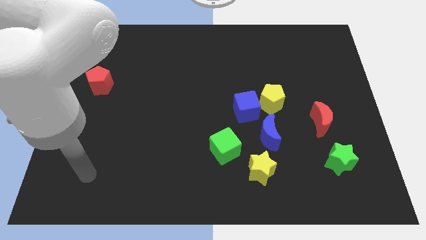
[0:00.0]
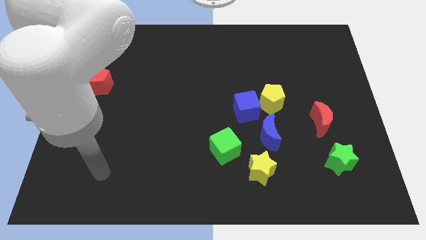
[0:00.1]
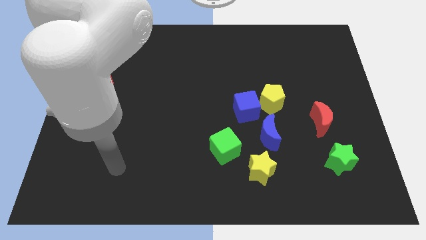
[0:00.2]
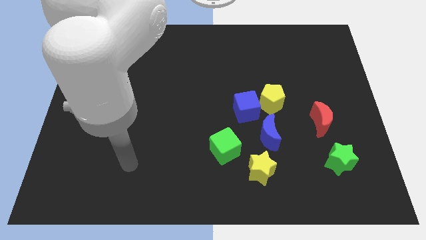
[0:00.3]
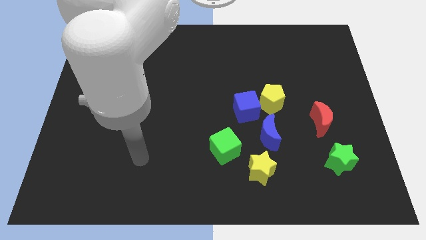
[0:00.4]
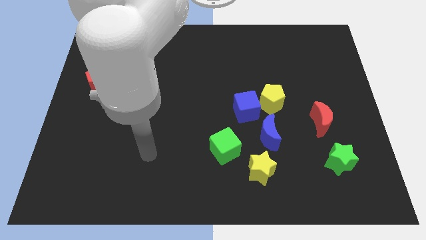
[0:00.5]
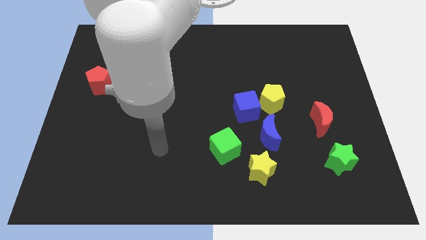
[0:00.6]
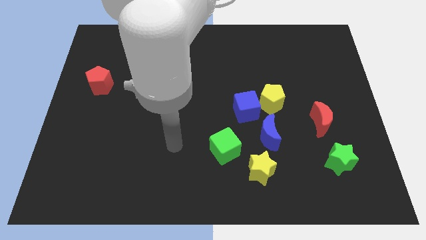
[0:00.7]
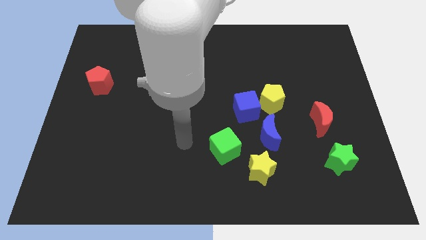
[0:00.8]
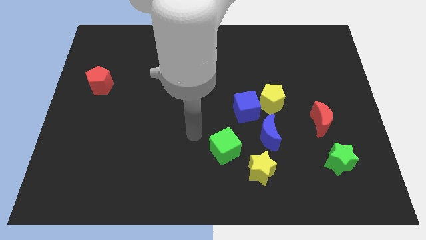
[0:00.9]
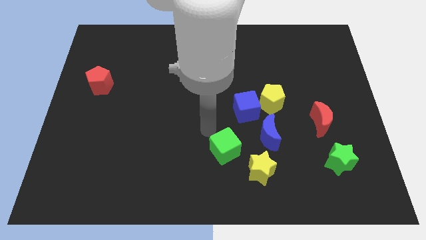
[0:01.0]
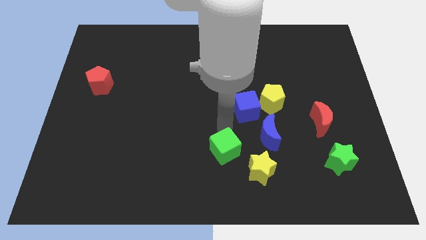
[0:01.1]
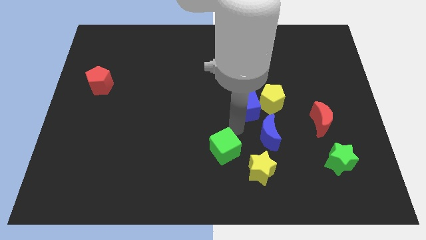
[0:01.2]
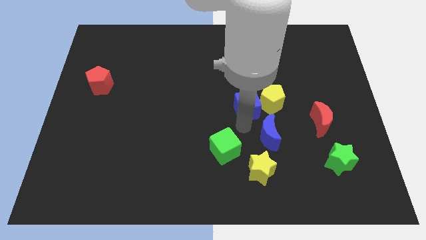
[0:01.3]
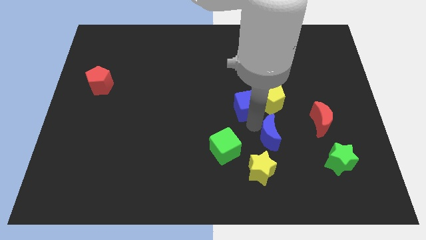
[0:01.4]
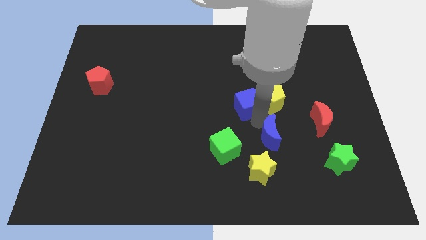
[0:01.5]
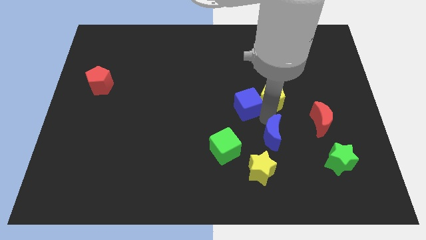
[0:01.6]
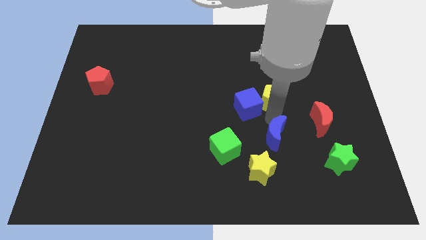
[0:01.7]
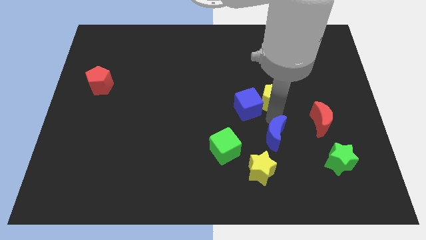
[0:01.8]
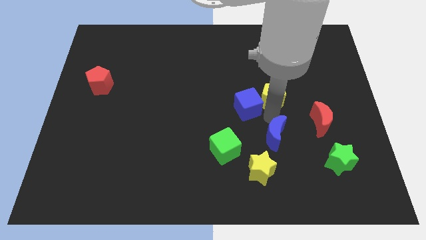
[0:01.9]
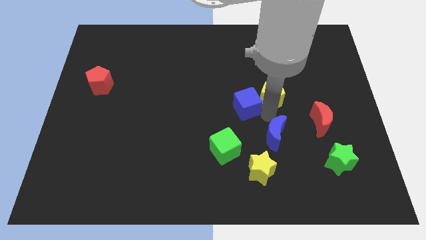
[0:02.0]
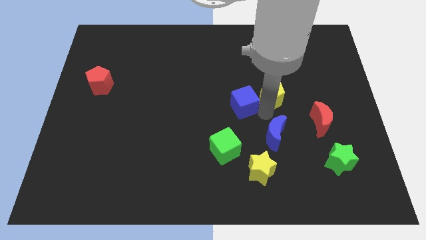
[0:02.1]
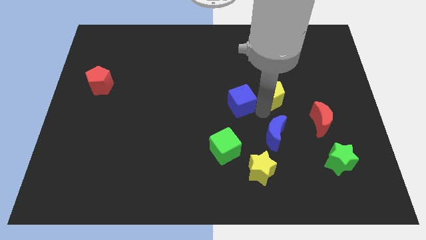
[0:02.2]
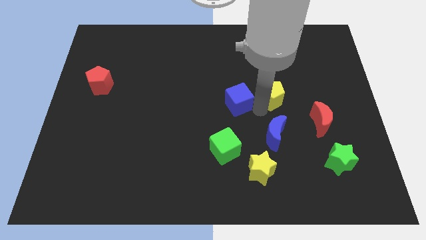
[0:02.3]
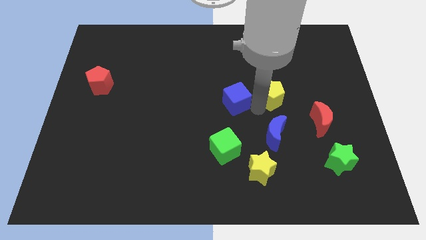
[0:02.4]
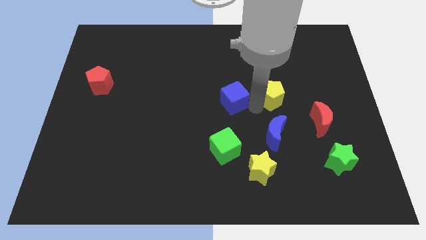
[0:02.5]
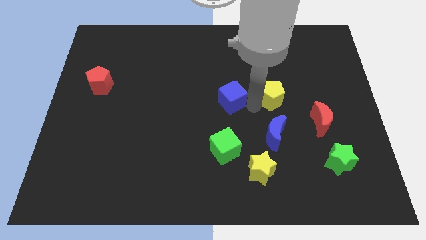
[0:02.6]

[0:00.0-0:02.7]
move the blue cube away from the yellow pentagon and blue moon

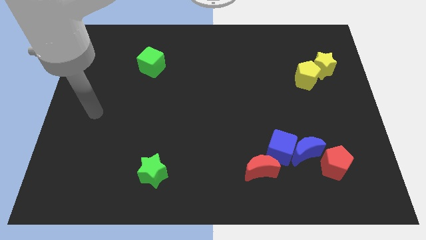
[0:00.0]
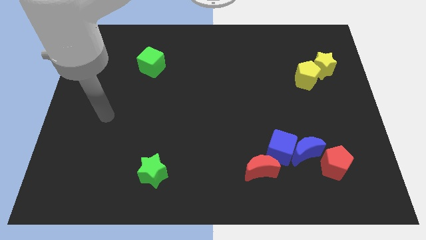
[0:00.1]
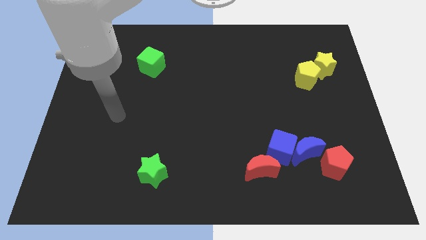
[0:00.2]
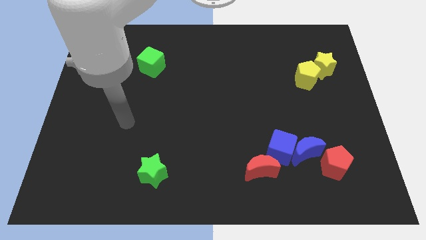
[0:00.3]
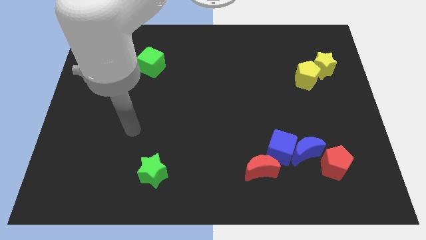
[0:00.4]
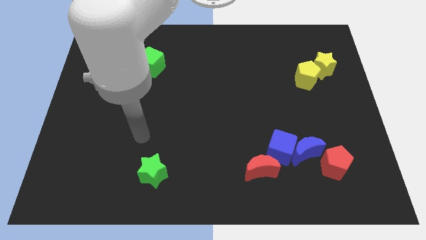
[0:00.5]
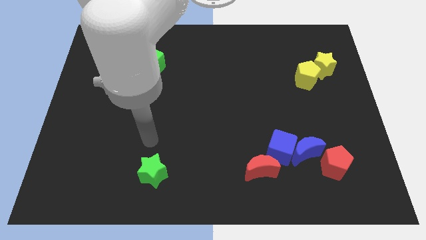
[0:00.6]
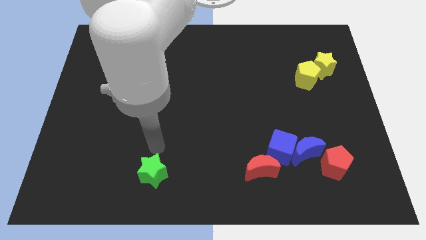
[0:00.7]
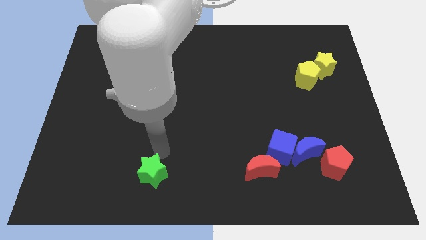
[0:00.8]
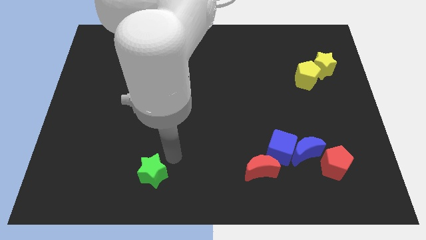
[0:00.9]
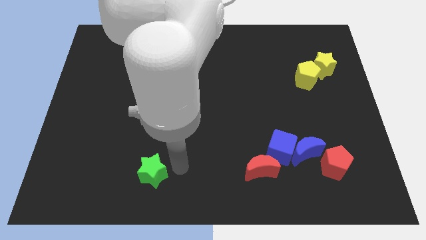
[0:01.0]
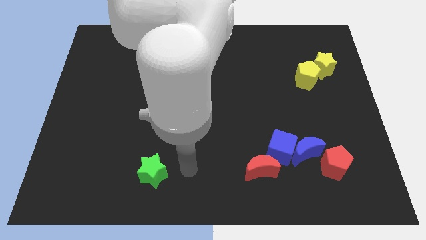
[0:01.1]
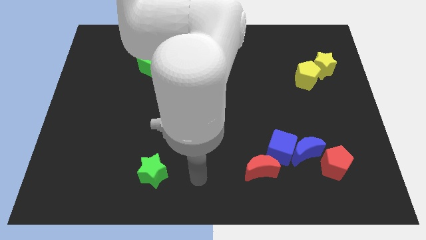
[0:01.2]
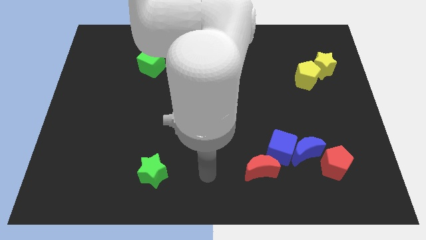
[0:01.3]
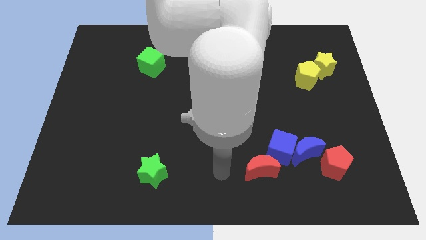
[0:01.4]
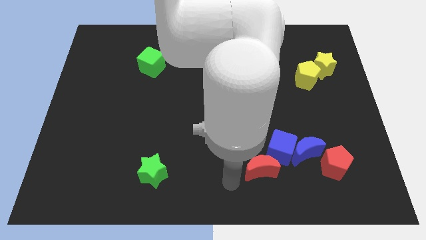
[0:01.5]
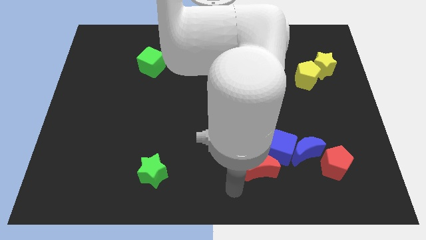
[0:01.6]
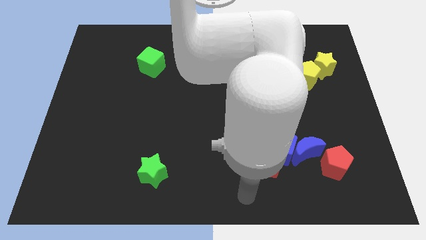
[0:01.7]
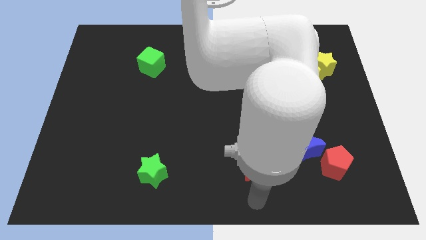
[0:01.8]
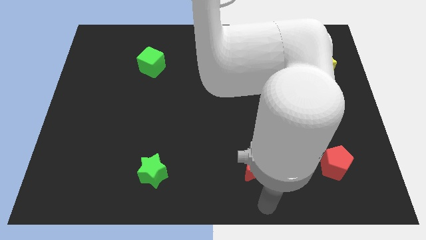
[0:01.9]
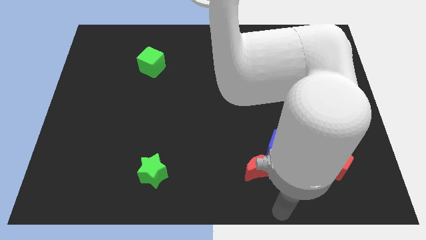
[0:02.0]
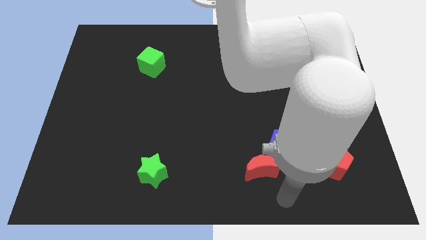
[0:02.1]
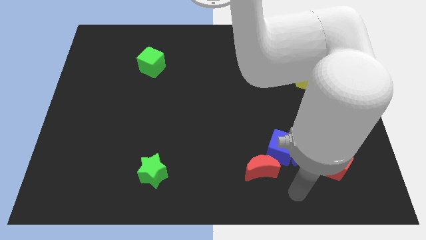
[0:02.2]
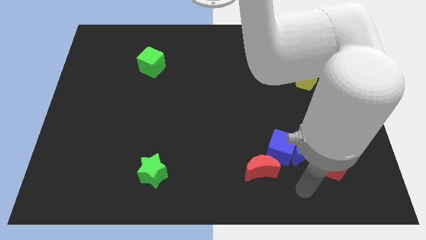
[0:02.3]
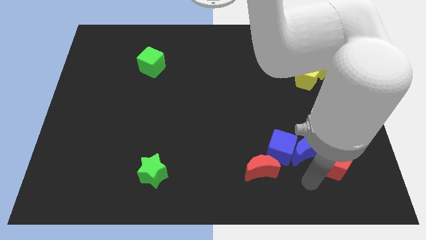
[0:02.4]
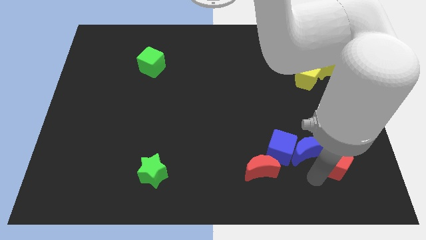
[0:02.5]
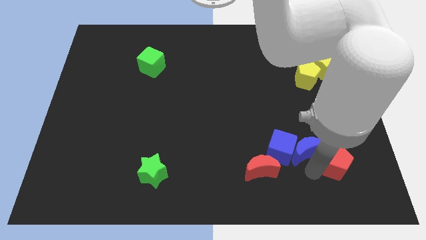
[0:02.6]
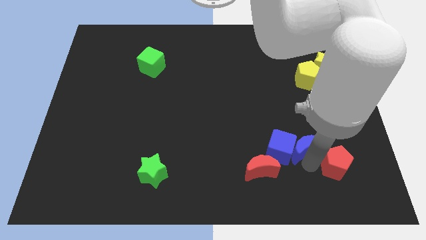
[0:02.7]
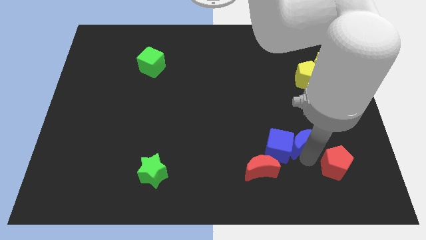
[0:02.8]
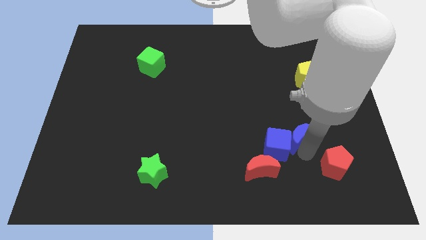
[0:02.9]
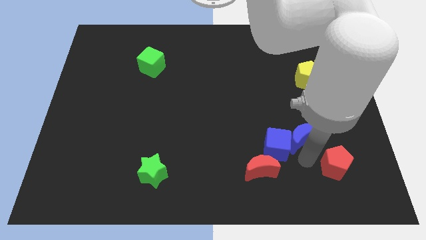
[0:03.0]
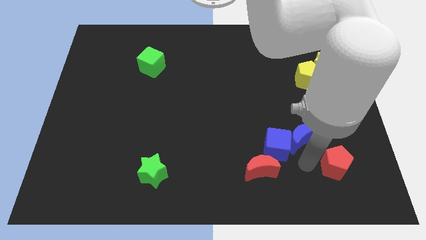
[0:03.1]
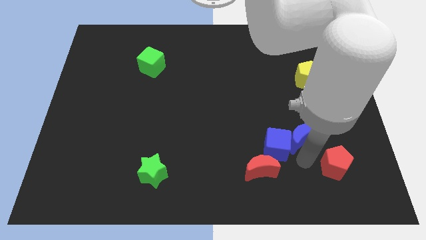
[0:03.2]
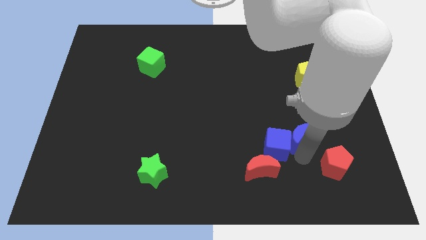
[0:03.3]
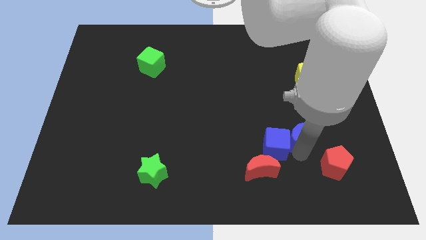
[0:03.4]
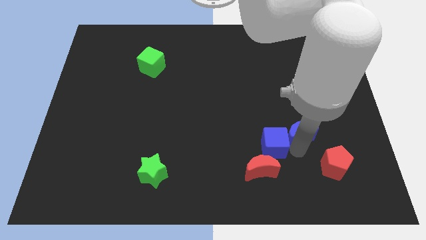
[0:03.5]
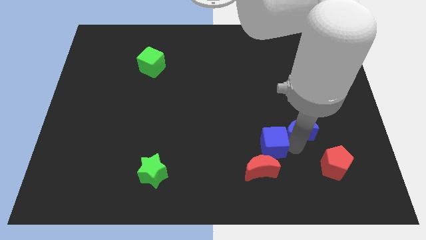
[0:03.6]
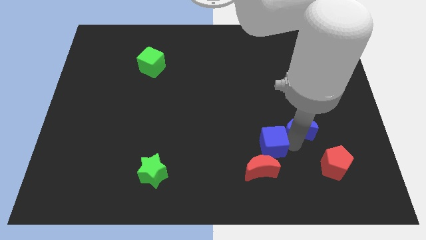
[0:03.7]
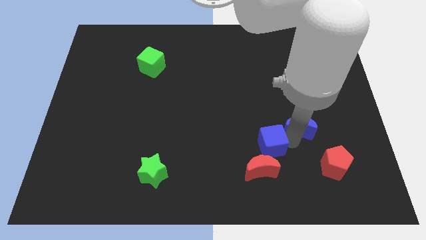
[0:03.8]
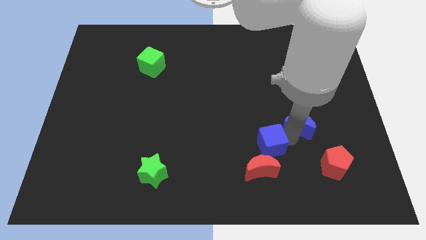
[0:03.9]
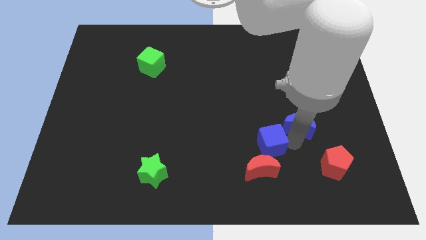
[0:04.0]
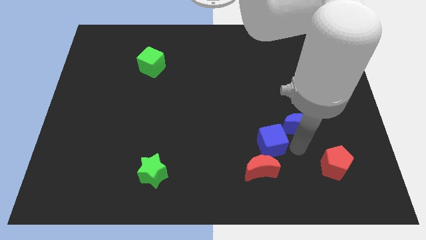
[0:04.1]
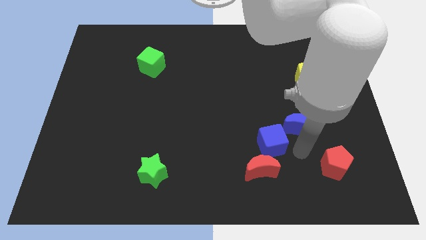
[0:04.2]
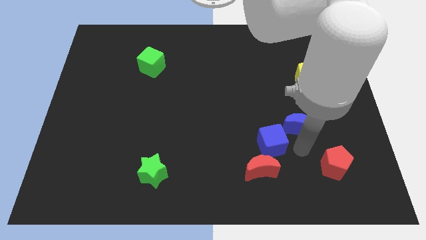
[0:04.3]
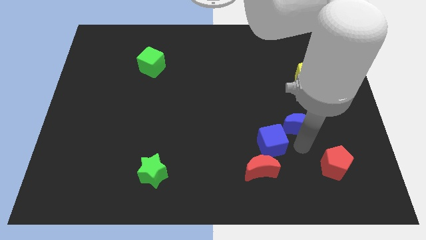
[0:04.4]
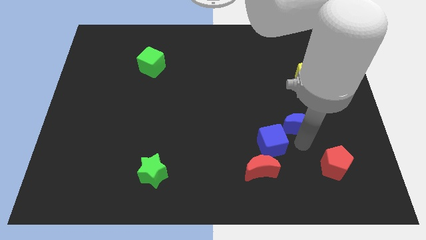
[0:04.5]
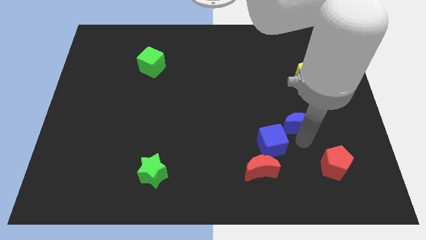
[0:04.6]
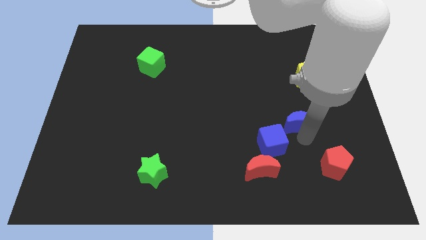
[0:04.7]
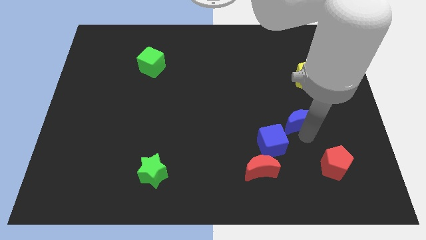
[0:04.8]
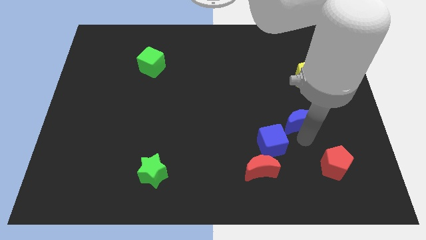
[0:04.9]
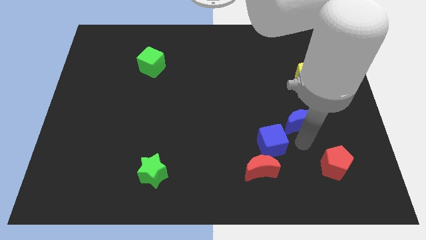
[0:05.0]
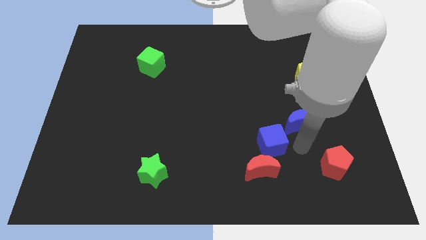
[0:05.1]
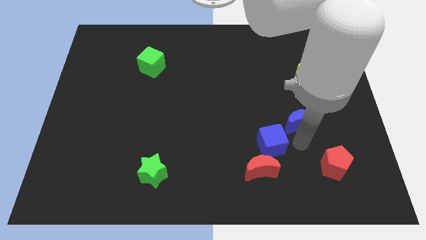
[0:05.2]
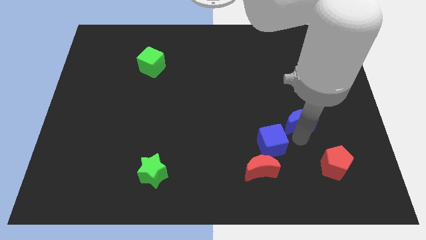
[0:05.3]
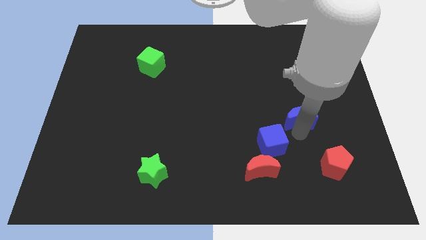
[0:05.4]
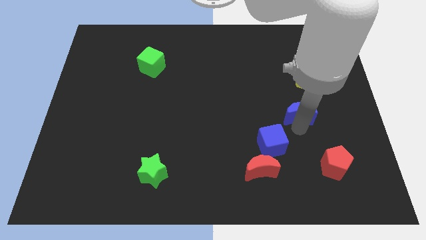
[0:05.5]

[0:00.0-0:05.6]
separate the blue moon from the blue cube and red pentagon

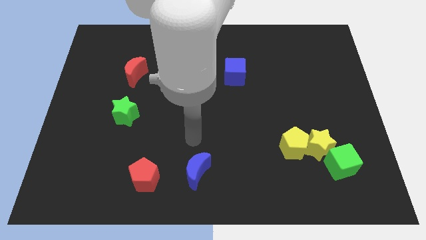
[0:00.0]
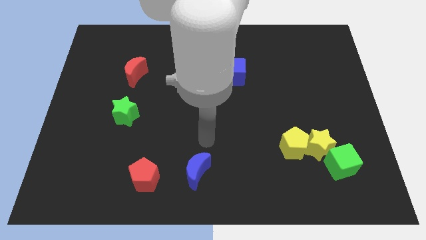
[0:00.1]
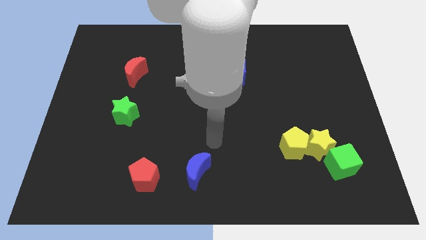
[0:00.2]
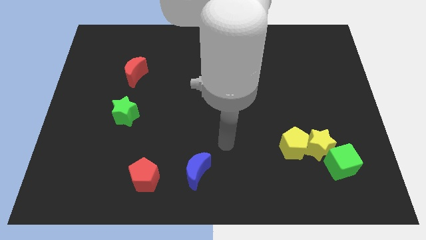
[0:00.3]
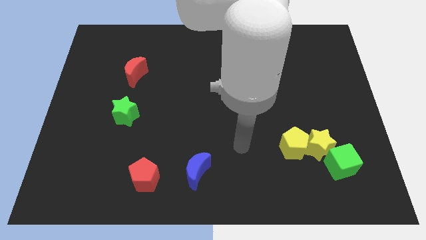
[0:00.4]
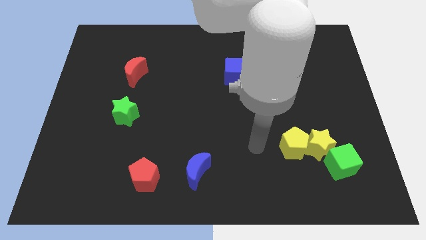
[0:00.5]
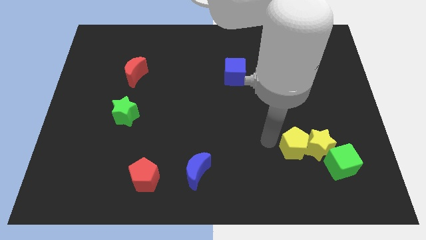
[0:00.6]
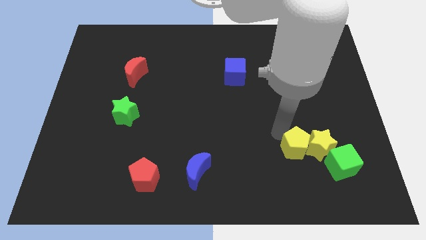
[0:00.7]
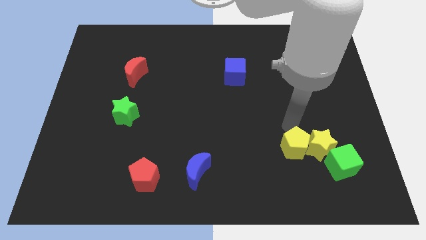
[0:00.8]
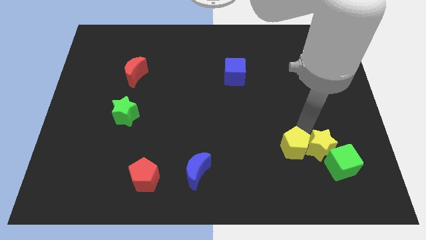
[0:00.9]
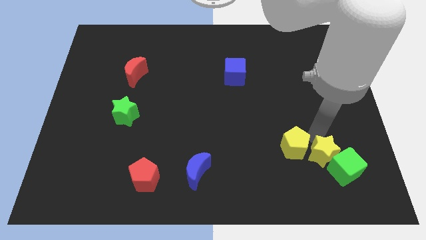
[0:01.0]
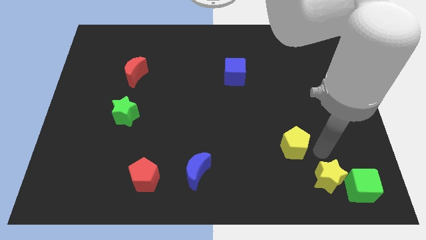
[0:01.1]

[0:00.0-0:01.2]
move the yellow pentagon away from the yellow star
